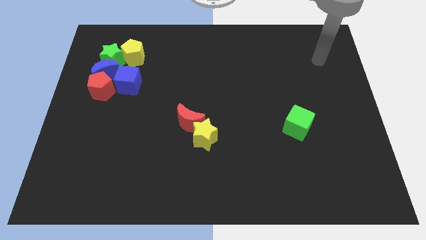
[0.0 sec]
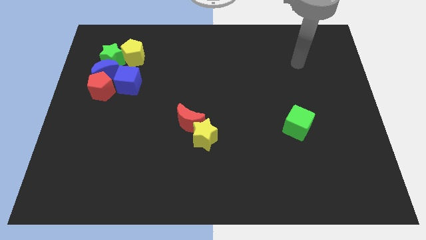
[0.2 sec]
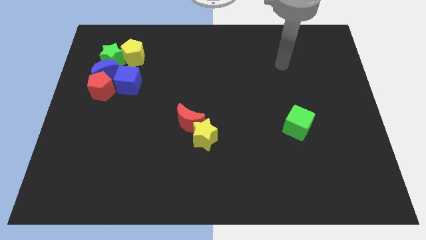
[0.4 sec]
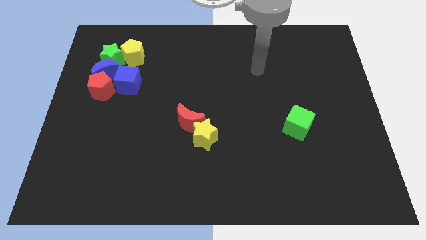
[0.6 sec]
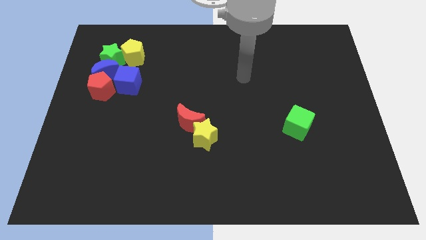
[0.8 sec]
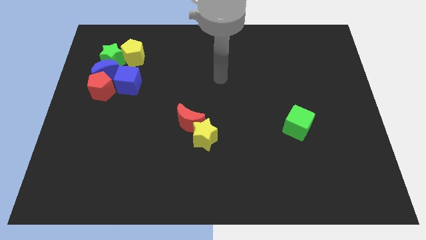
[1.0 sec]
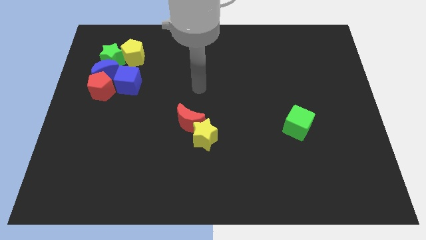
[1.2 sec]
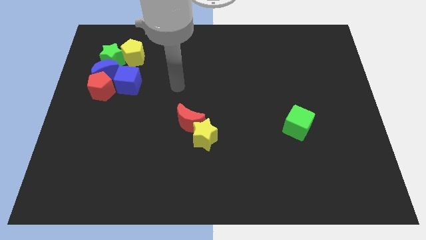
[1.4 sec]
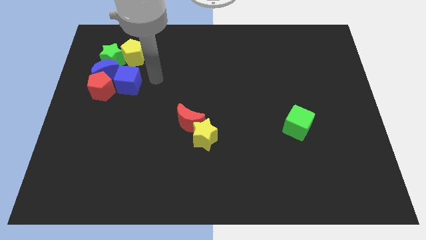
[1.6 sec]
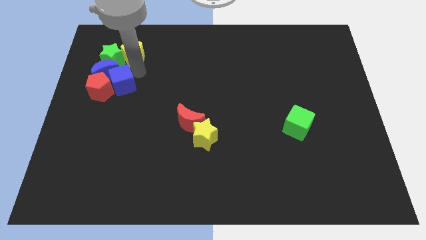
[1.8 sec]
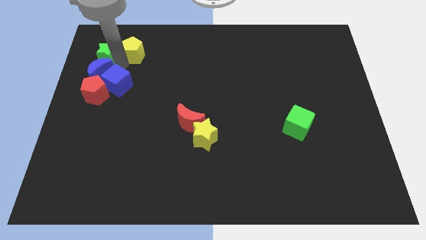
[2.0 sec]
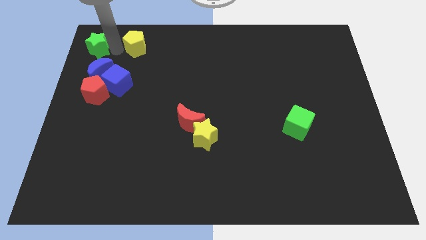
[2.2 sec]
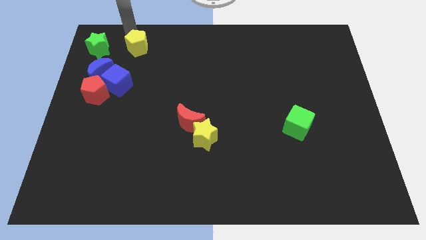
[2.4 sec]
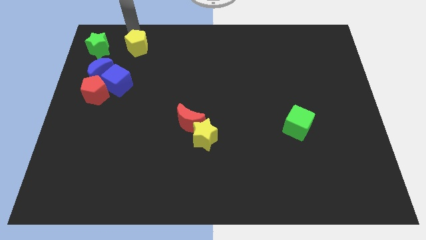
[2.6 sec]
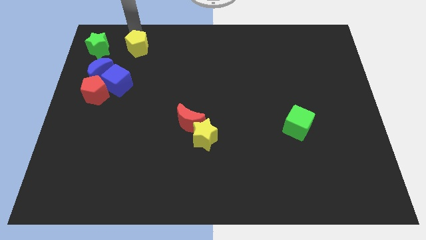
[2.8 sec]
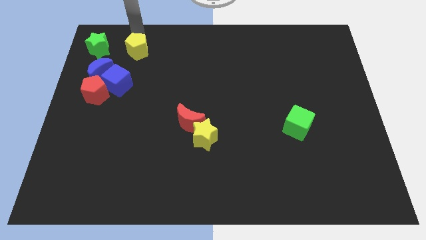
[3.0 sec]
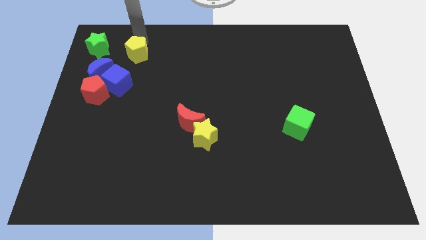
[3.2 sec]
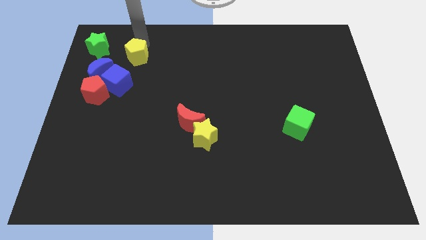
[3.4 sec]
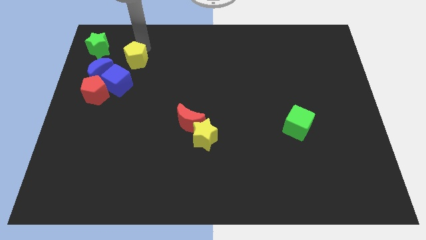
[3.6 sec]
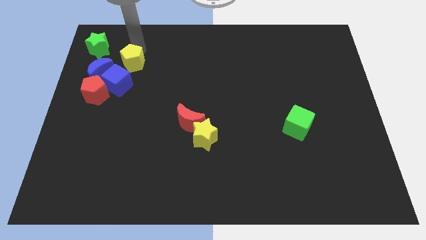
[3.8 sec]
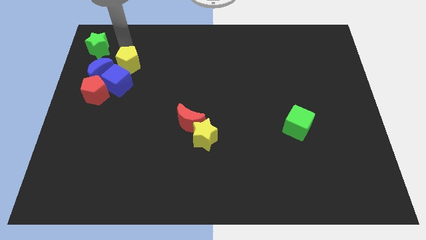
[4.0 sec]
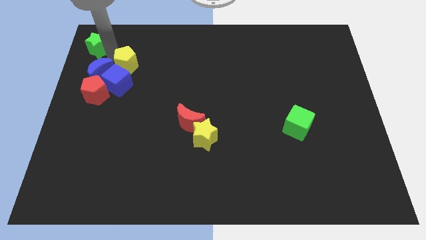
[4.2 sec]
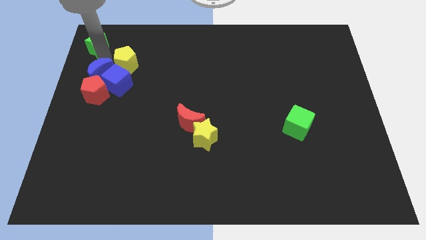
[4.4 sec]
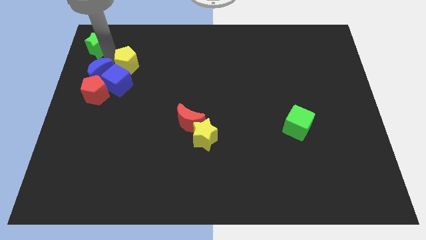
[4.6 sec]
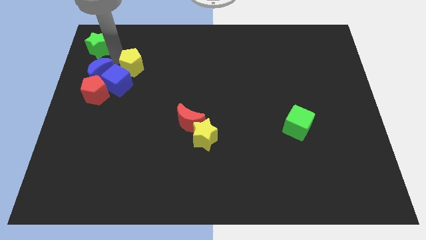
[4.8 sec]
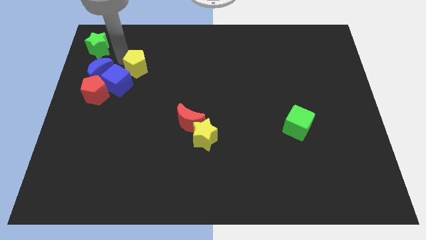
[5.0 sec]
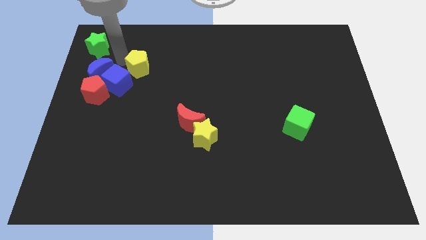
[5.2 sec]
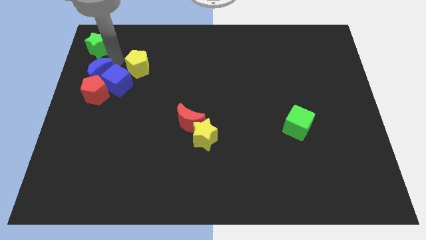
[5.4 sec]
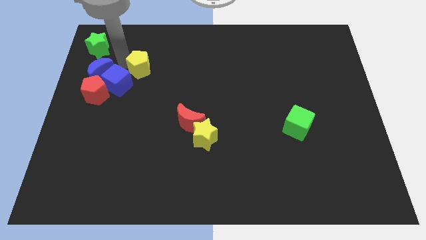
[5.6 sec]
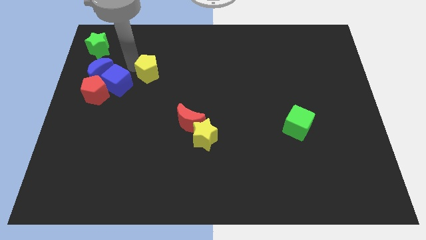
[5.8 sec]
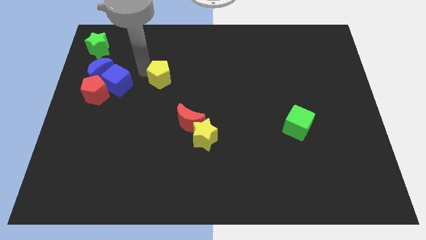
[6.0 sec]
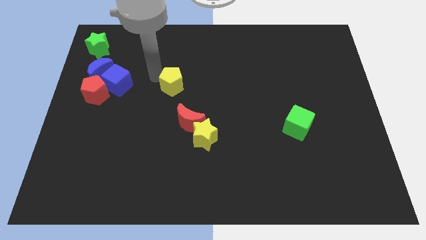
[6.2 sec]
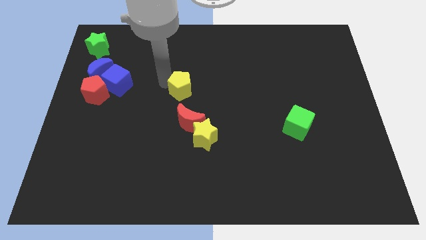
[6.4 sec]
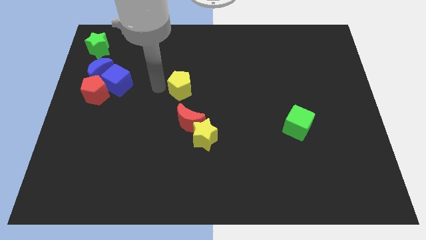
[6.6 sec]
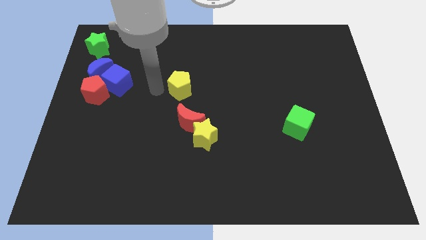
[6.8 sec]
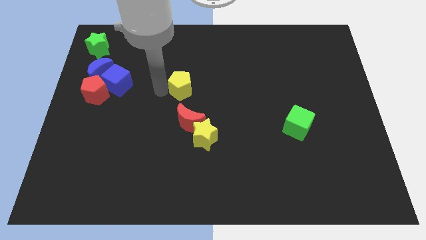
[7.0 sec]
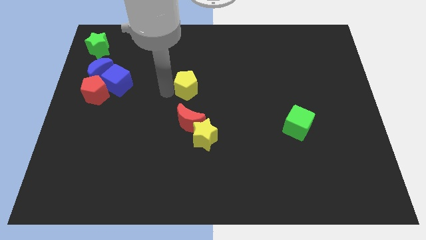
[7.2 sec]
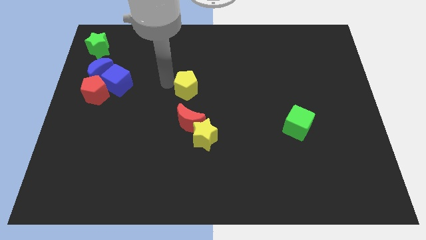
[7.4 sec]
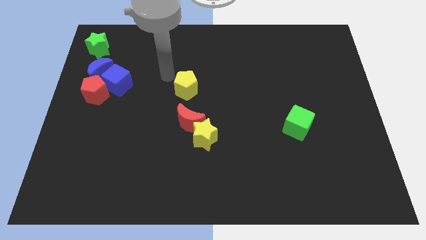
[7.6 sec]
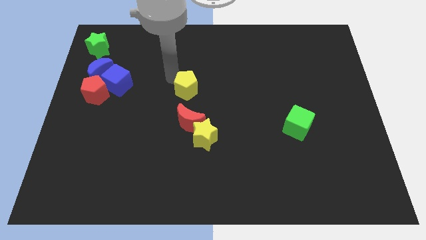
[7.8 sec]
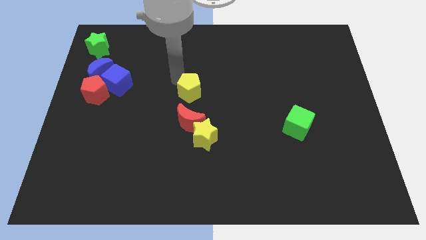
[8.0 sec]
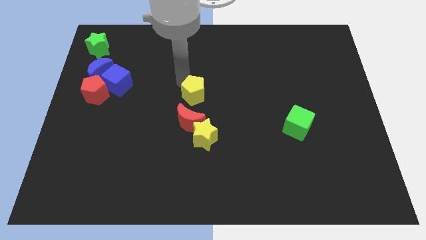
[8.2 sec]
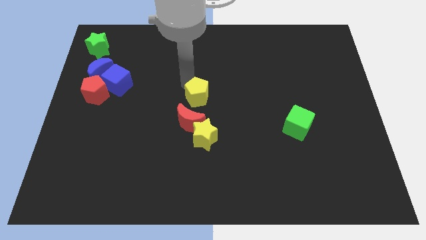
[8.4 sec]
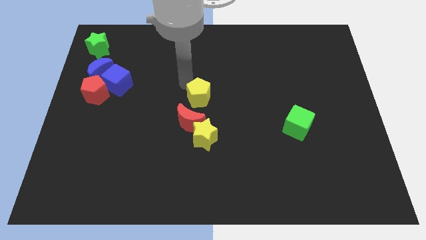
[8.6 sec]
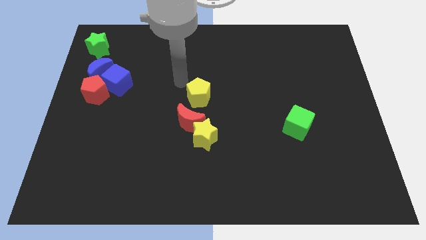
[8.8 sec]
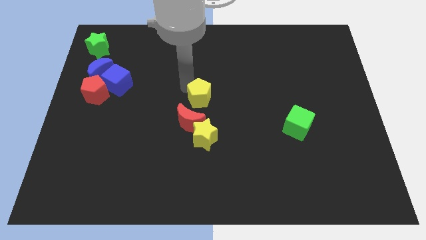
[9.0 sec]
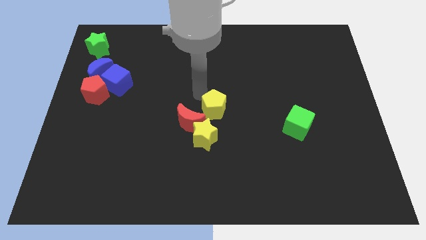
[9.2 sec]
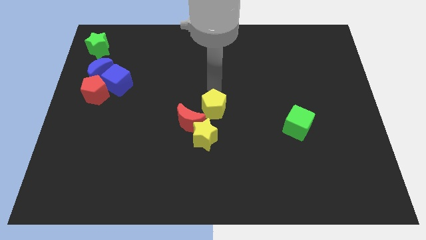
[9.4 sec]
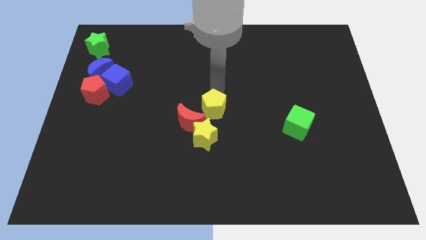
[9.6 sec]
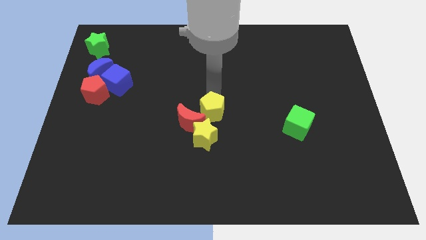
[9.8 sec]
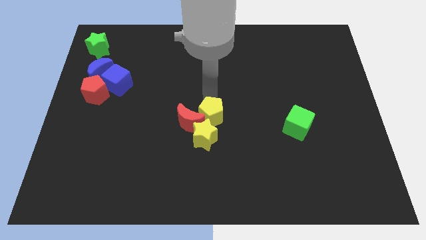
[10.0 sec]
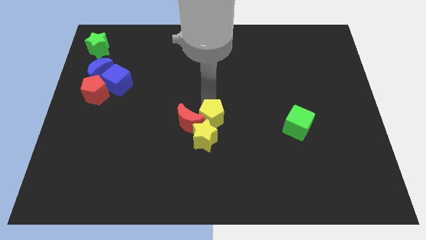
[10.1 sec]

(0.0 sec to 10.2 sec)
put the yellow pentagon to the yellow star

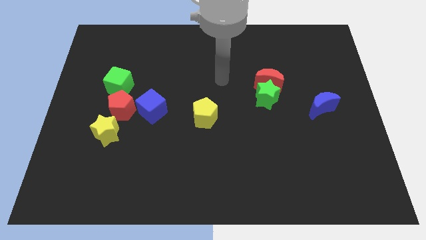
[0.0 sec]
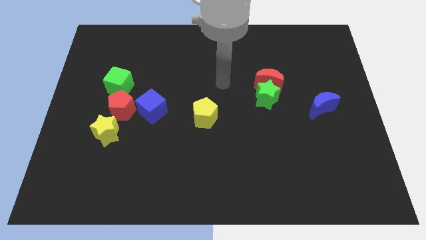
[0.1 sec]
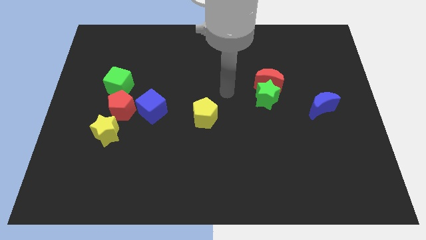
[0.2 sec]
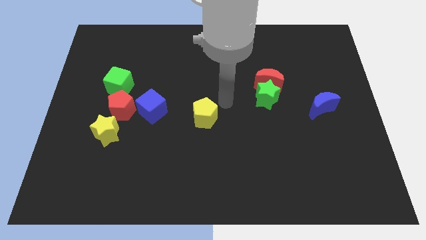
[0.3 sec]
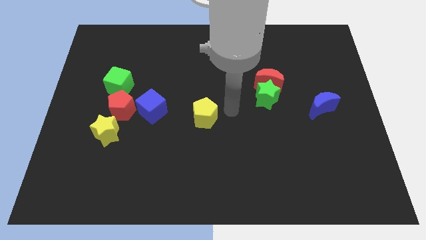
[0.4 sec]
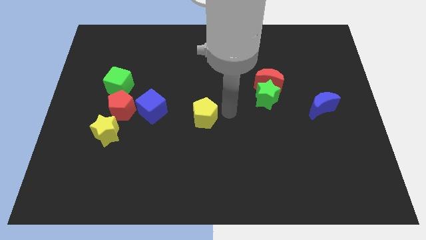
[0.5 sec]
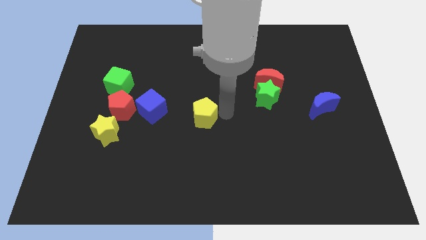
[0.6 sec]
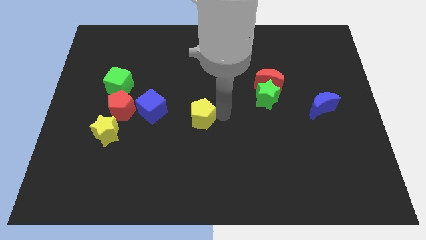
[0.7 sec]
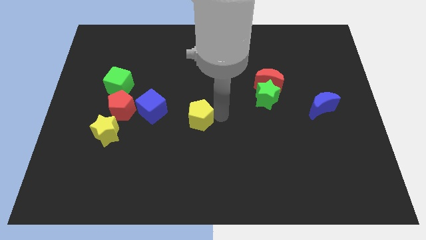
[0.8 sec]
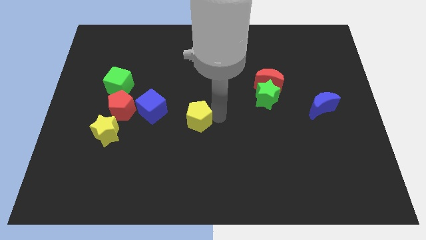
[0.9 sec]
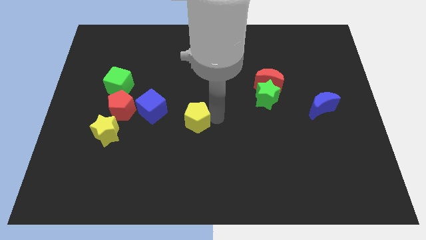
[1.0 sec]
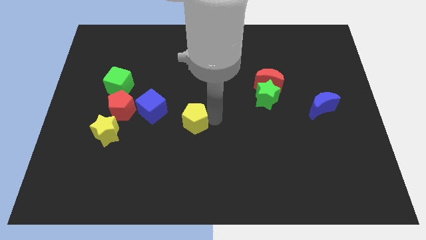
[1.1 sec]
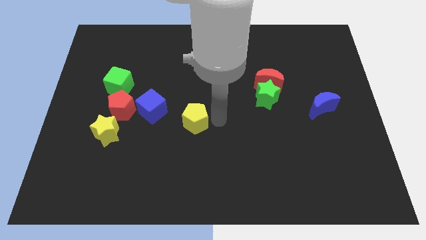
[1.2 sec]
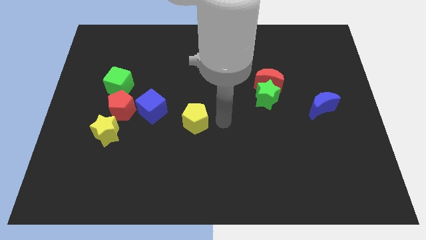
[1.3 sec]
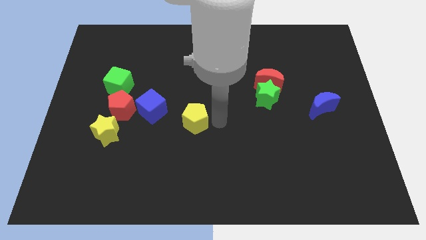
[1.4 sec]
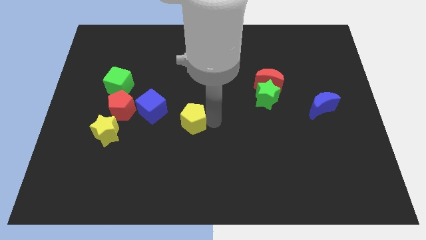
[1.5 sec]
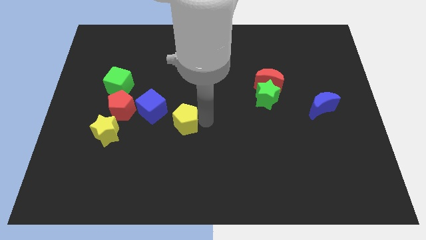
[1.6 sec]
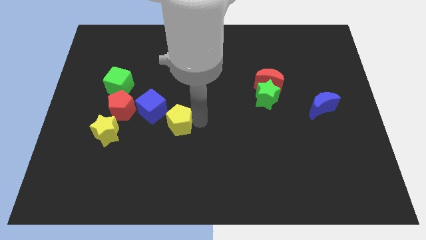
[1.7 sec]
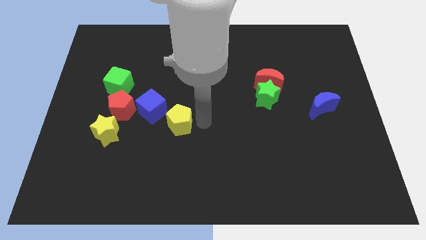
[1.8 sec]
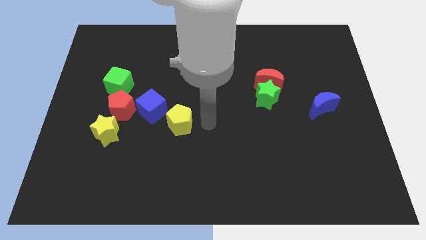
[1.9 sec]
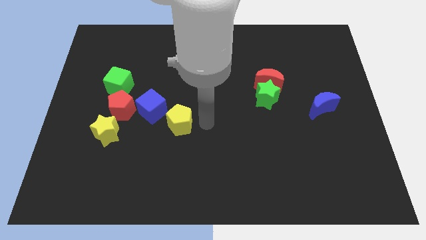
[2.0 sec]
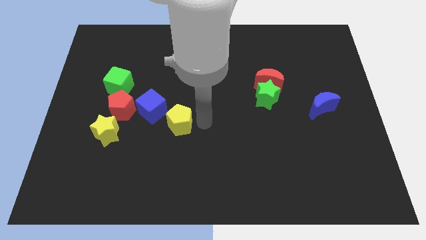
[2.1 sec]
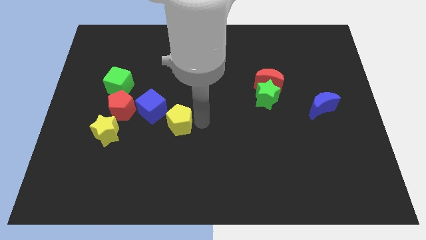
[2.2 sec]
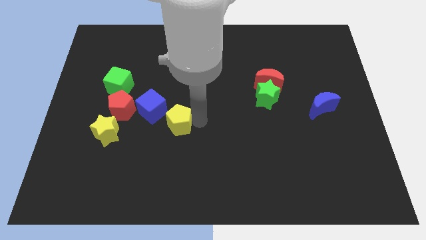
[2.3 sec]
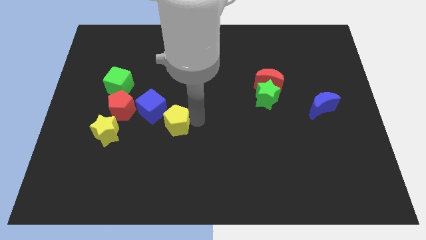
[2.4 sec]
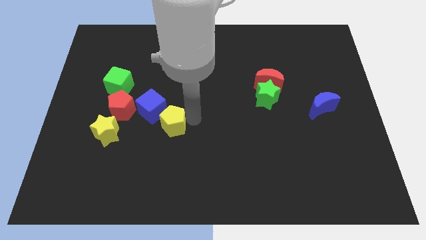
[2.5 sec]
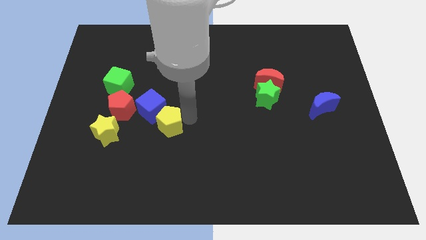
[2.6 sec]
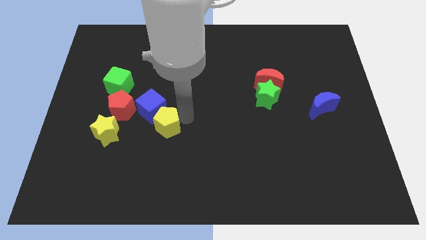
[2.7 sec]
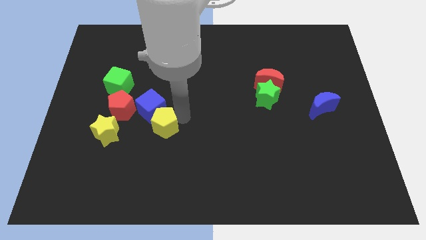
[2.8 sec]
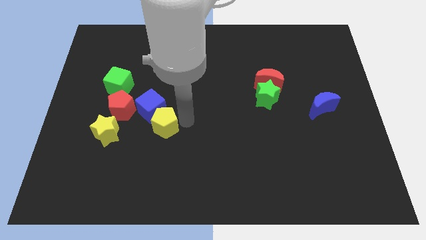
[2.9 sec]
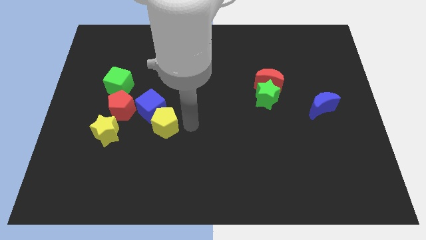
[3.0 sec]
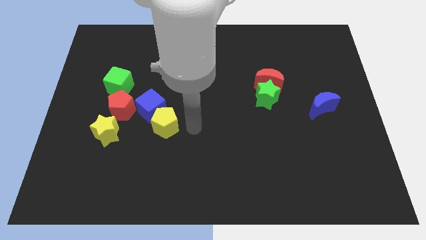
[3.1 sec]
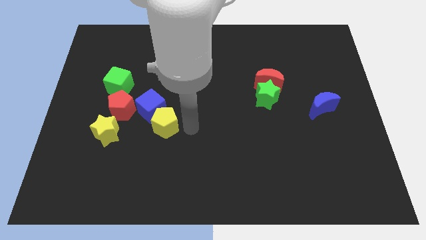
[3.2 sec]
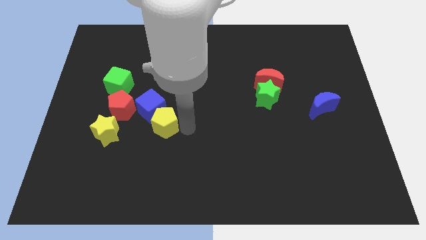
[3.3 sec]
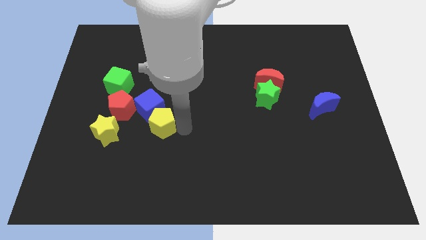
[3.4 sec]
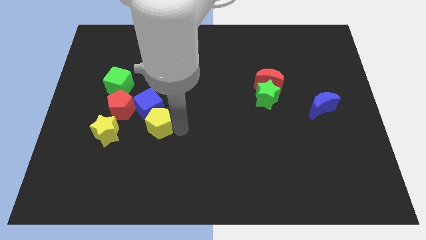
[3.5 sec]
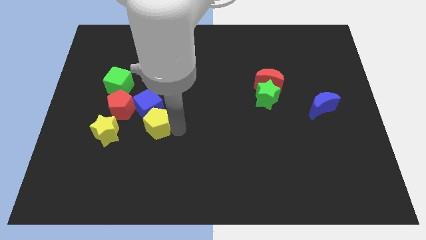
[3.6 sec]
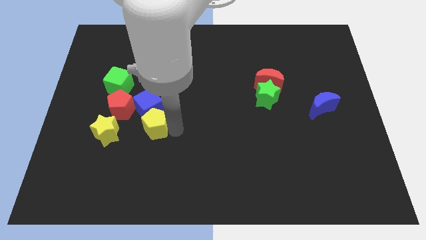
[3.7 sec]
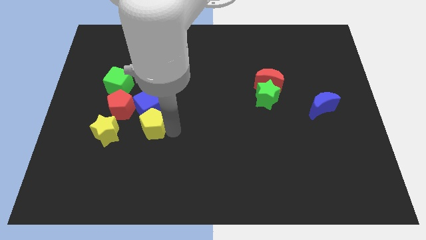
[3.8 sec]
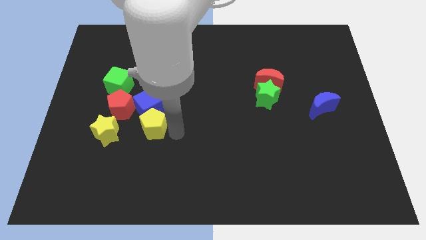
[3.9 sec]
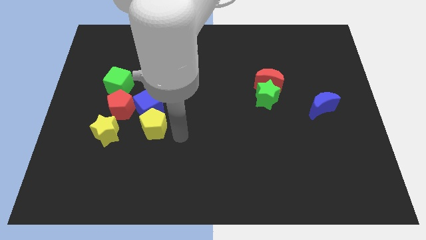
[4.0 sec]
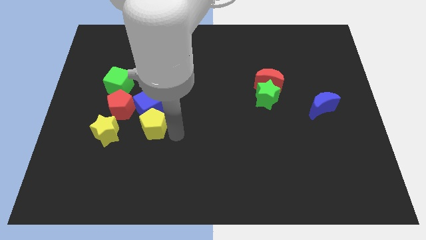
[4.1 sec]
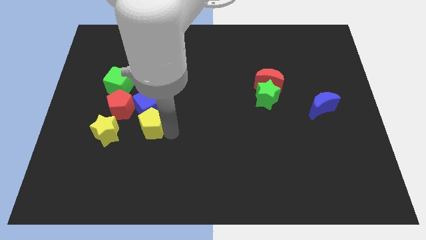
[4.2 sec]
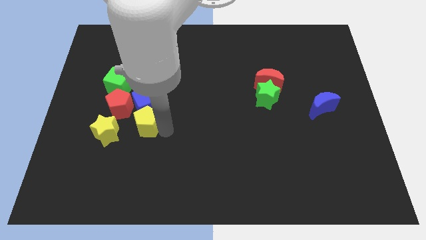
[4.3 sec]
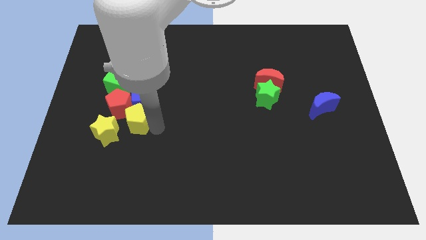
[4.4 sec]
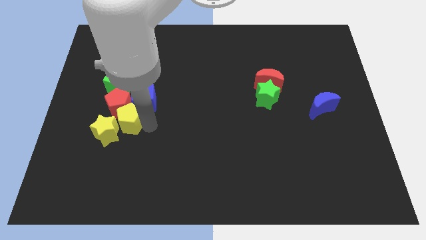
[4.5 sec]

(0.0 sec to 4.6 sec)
move the yellow pentagon towards the red pentagon
